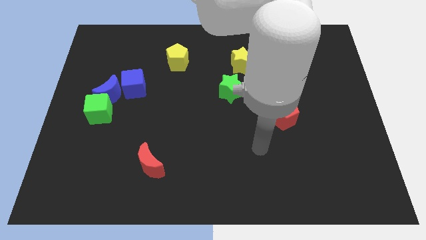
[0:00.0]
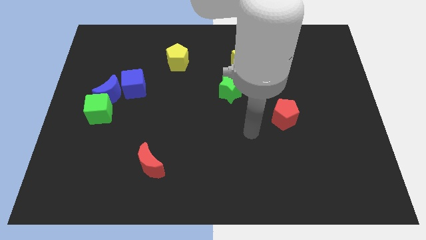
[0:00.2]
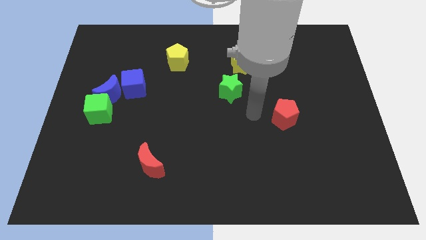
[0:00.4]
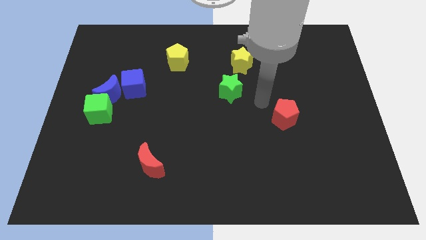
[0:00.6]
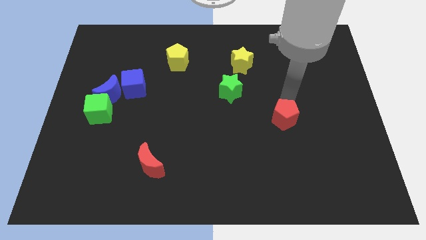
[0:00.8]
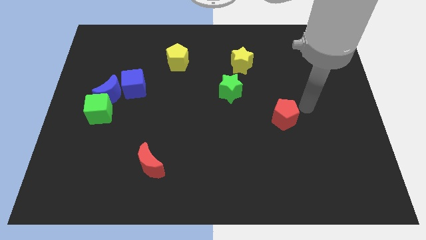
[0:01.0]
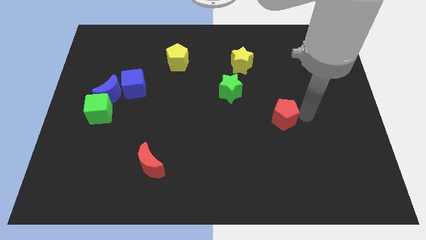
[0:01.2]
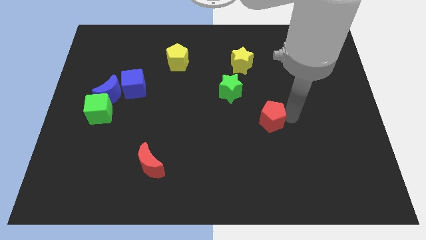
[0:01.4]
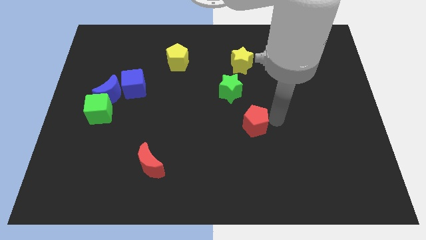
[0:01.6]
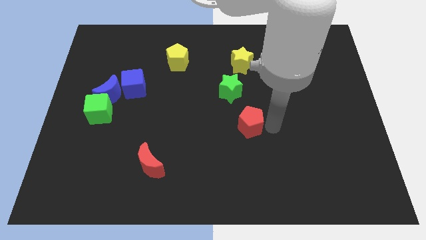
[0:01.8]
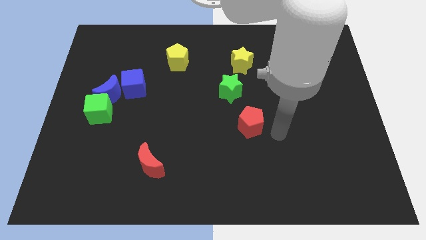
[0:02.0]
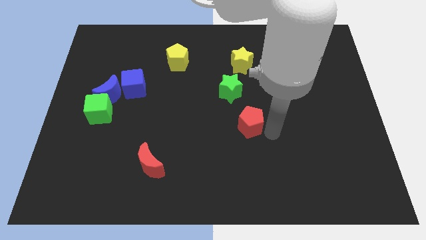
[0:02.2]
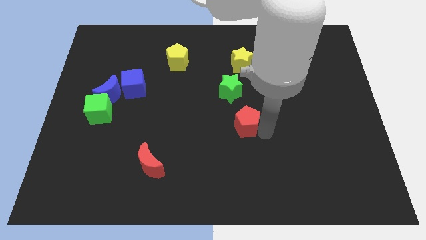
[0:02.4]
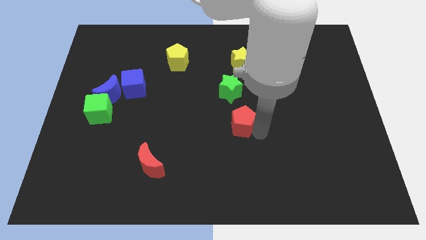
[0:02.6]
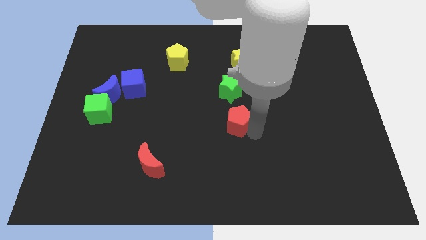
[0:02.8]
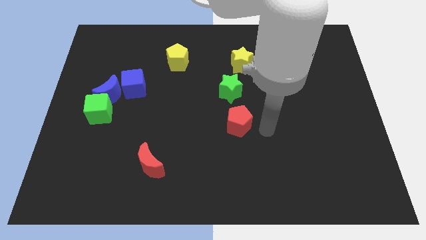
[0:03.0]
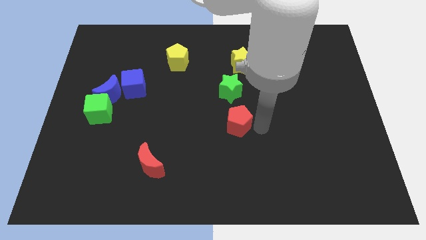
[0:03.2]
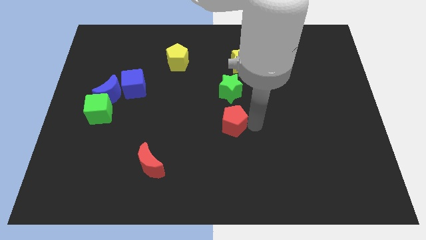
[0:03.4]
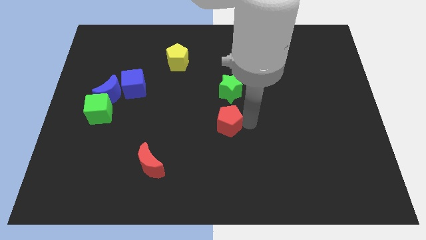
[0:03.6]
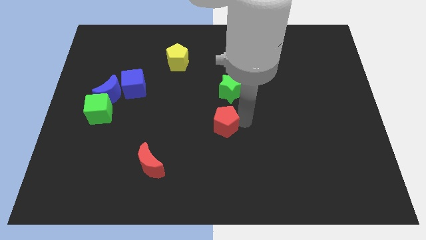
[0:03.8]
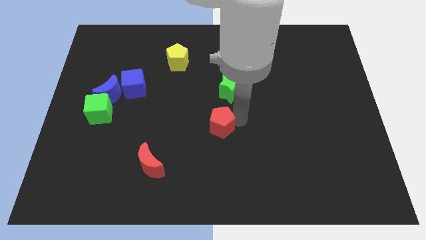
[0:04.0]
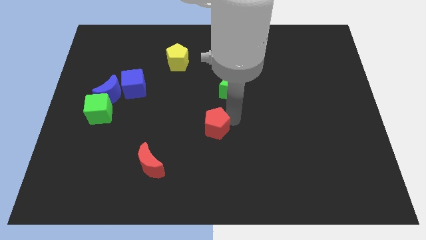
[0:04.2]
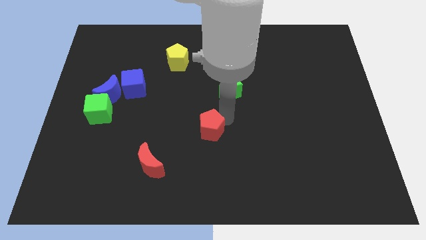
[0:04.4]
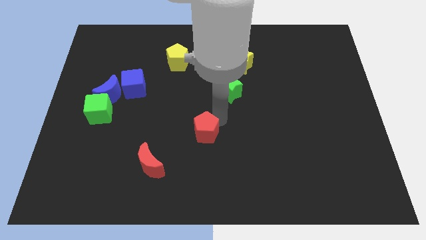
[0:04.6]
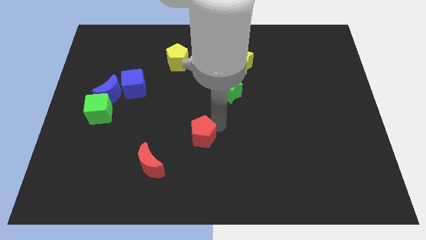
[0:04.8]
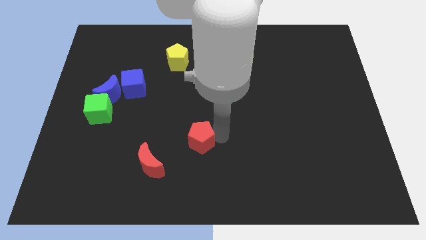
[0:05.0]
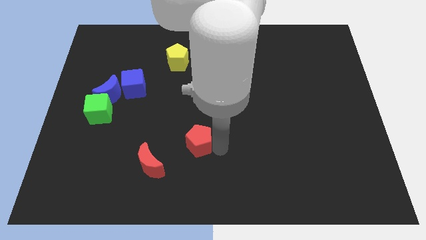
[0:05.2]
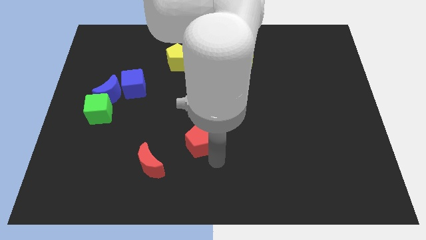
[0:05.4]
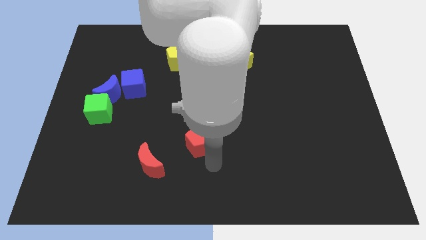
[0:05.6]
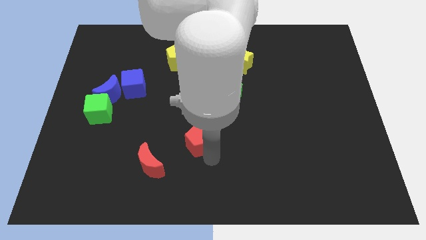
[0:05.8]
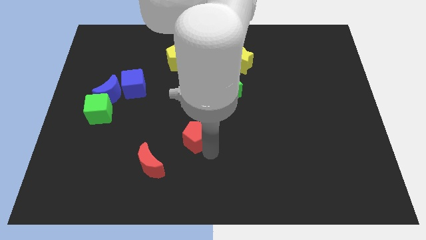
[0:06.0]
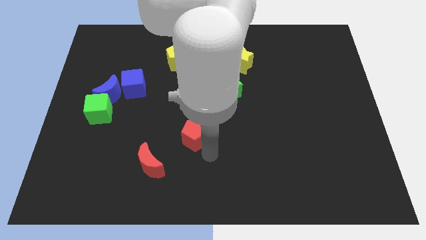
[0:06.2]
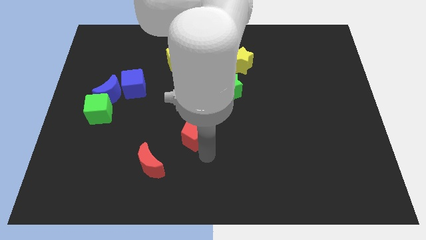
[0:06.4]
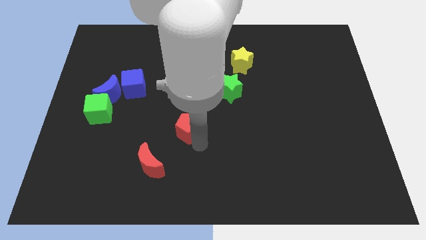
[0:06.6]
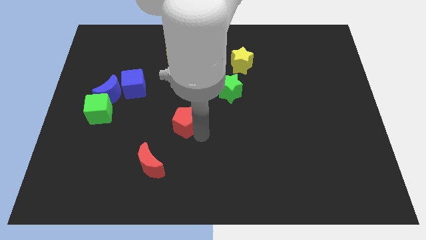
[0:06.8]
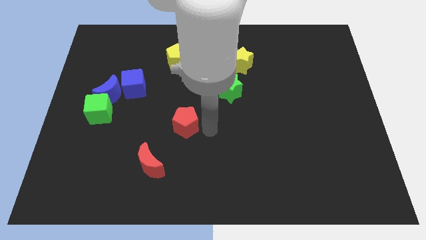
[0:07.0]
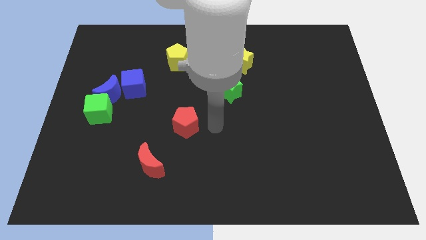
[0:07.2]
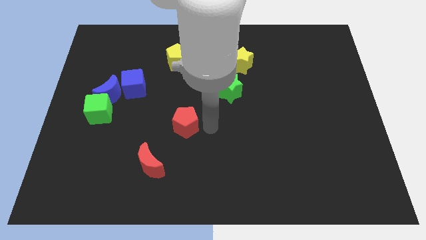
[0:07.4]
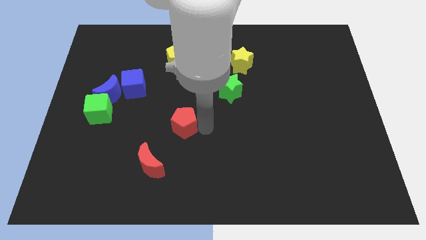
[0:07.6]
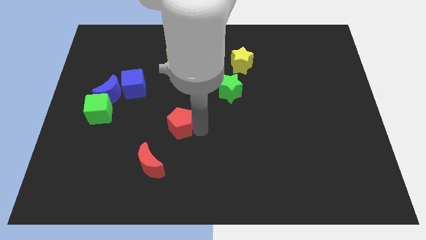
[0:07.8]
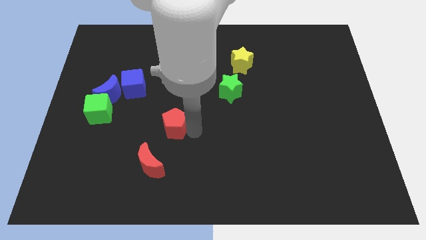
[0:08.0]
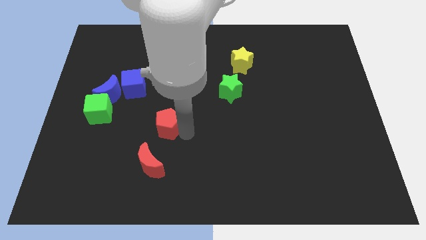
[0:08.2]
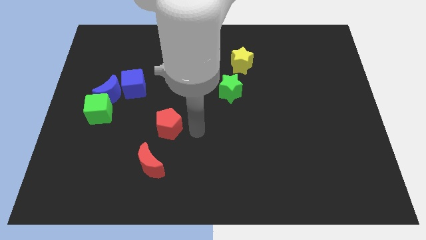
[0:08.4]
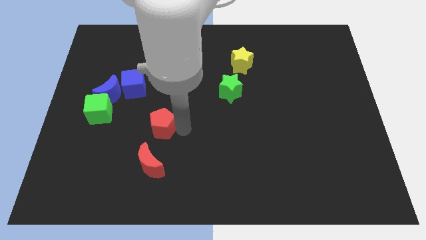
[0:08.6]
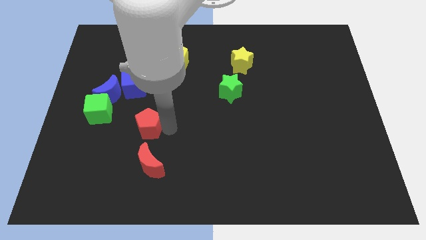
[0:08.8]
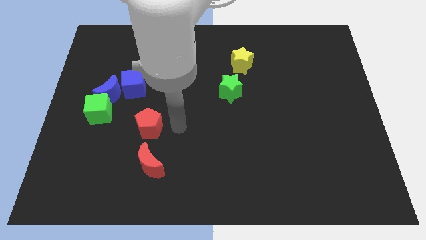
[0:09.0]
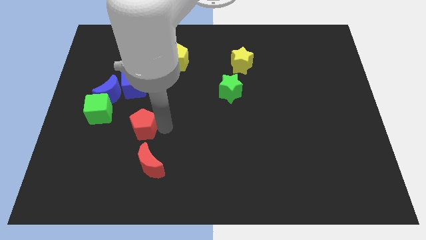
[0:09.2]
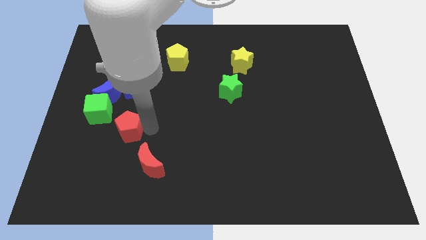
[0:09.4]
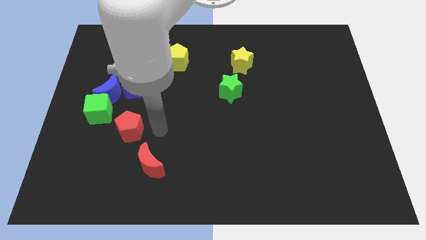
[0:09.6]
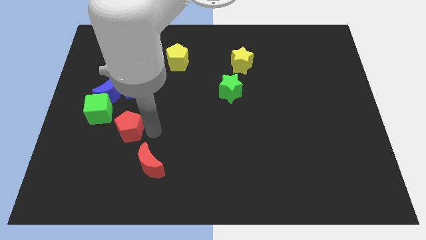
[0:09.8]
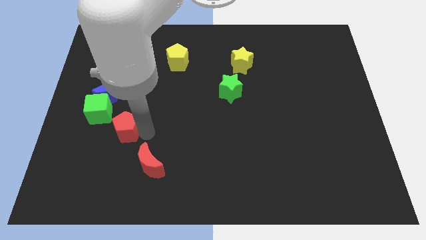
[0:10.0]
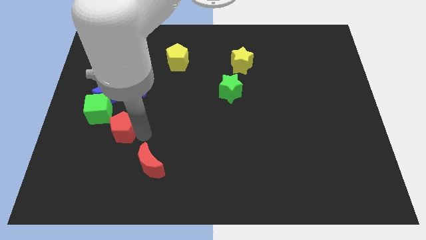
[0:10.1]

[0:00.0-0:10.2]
move the red pentagon below the blue moon

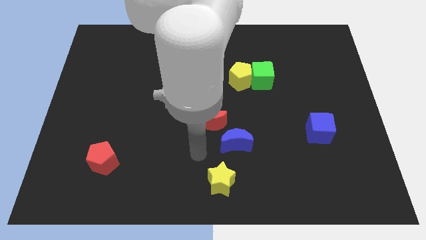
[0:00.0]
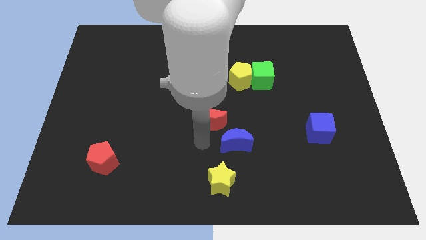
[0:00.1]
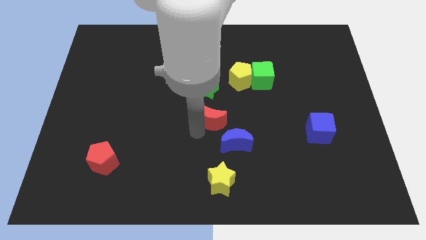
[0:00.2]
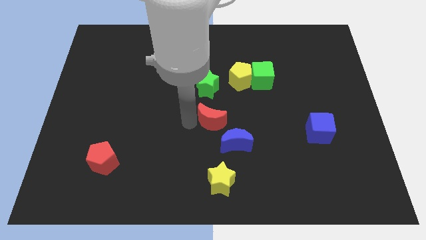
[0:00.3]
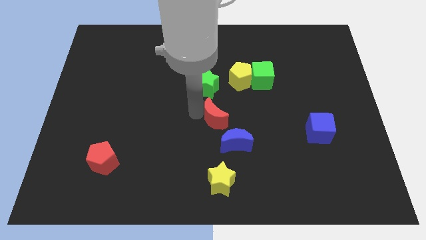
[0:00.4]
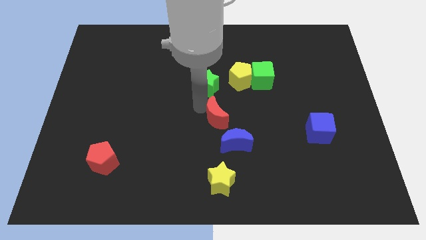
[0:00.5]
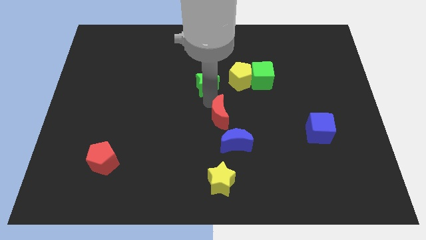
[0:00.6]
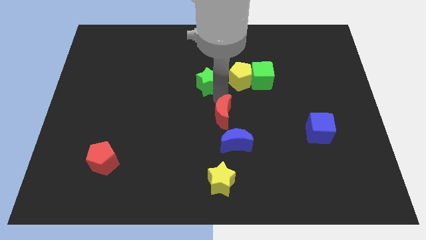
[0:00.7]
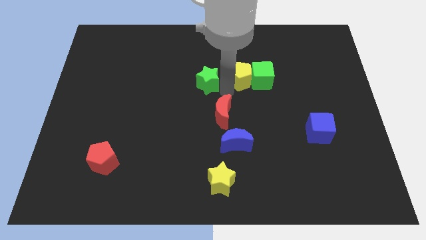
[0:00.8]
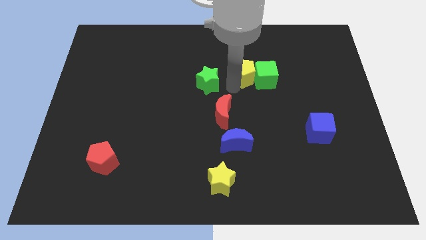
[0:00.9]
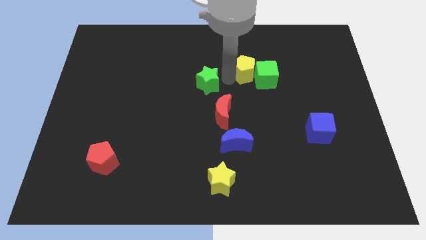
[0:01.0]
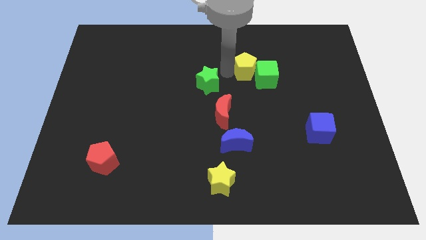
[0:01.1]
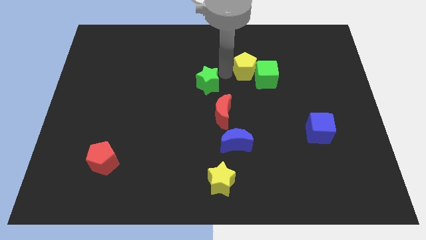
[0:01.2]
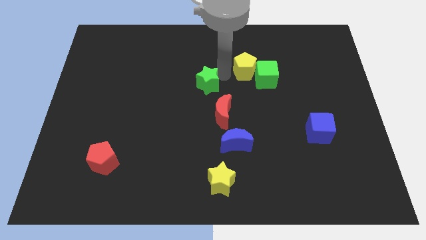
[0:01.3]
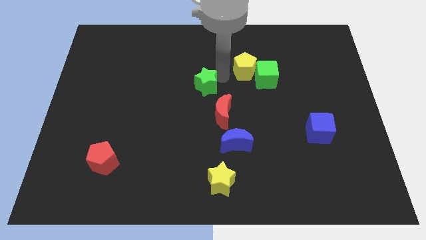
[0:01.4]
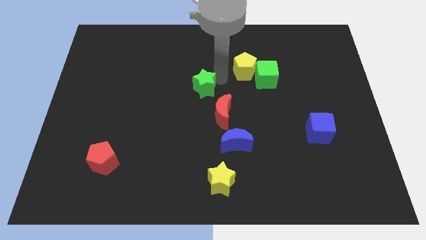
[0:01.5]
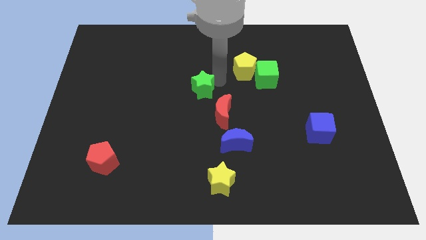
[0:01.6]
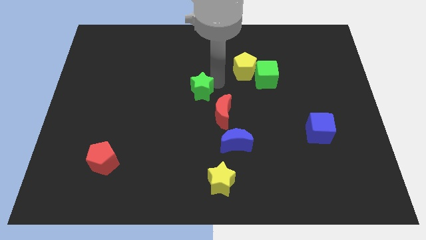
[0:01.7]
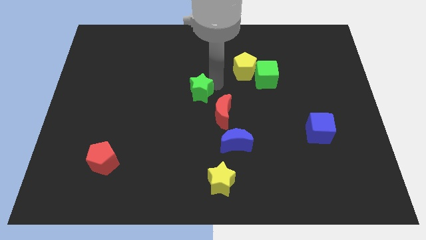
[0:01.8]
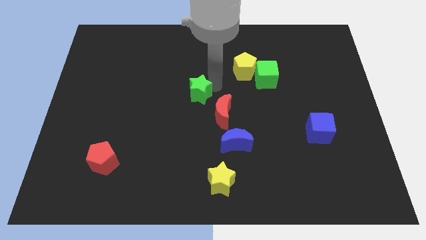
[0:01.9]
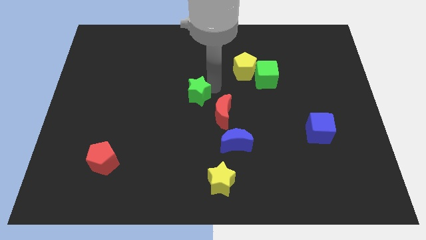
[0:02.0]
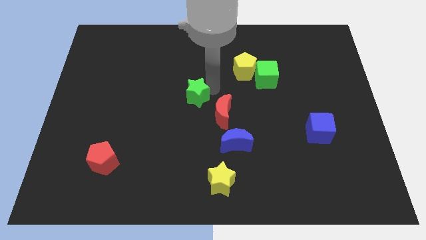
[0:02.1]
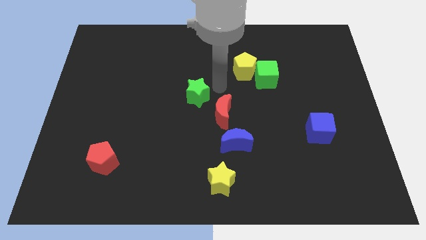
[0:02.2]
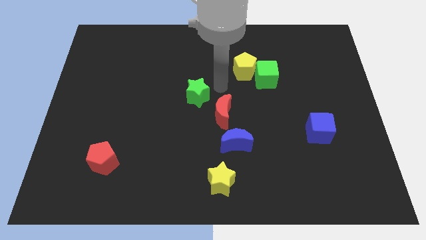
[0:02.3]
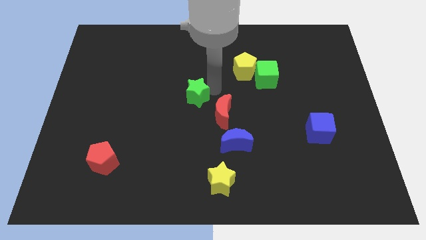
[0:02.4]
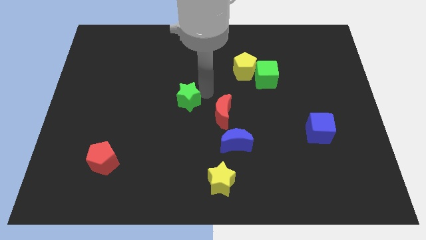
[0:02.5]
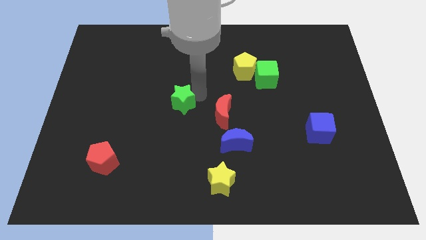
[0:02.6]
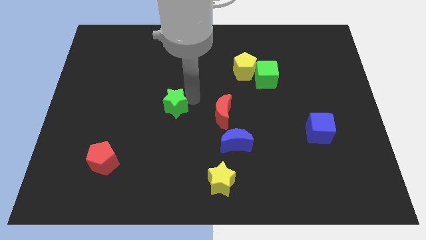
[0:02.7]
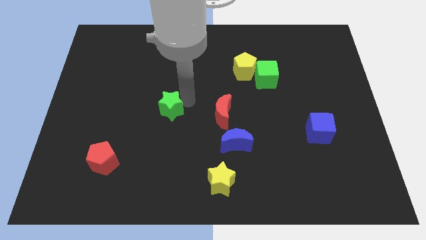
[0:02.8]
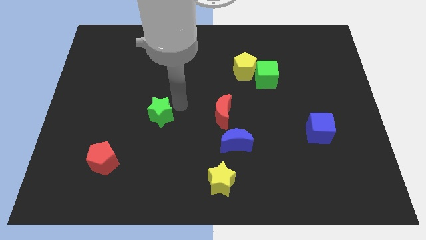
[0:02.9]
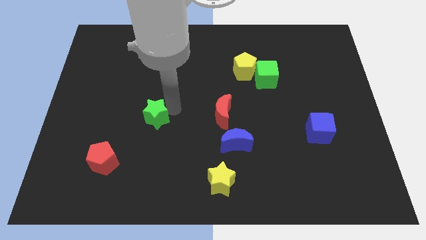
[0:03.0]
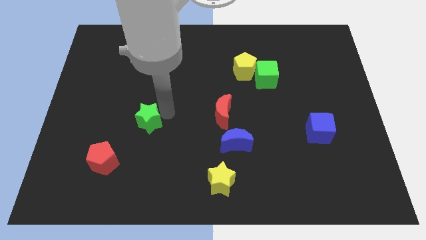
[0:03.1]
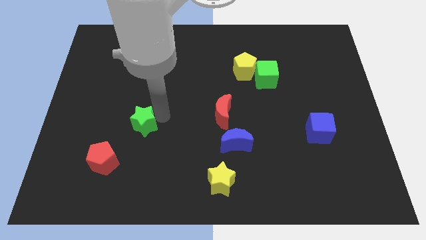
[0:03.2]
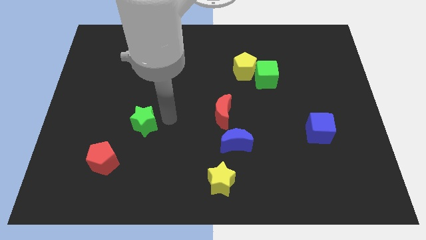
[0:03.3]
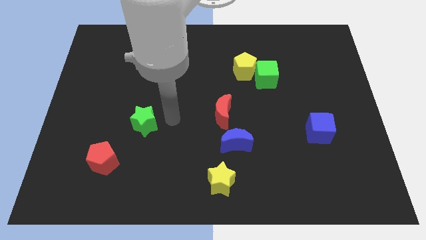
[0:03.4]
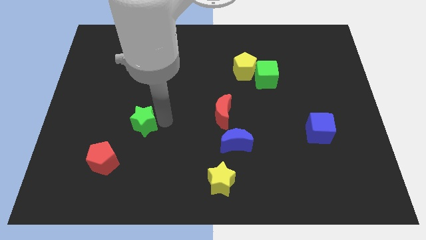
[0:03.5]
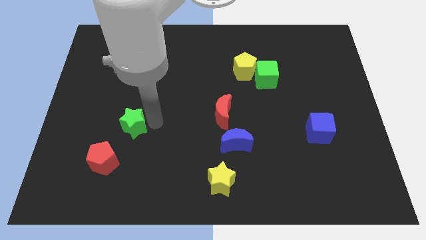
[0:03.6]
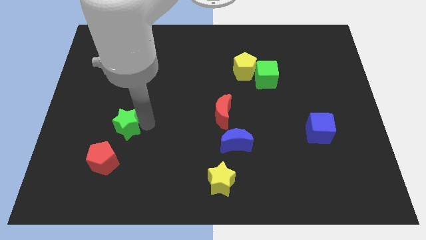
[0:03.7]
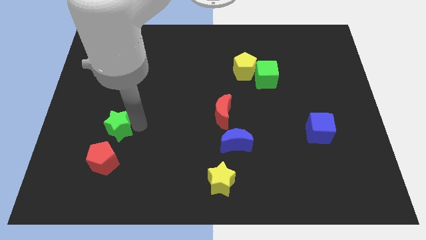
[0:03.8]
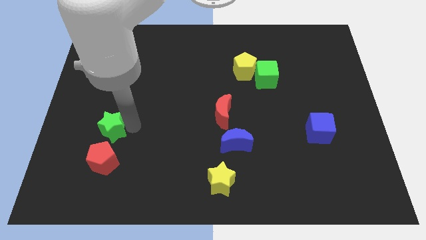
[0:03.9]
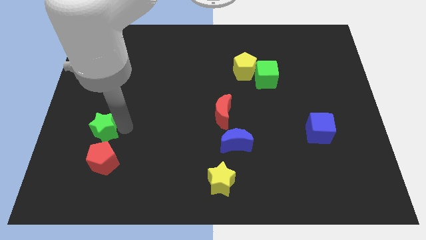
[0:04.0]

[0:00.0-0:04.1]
slide the green star diagonally up and to the left of the red pentagon
